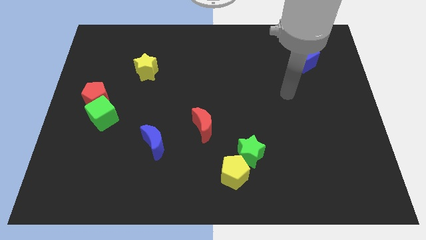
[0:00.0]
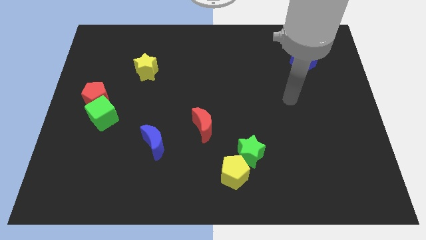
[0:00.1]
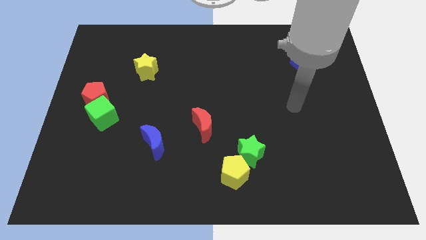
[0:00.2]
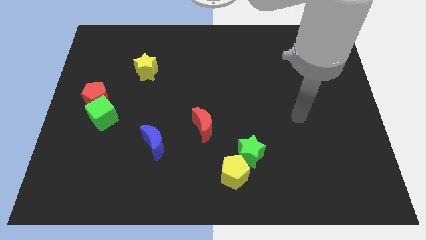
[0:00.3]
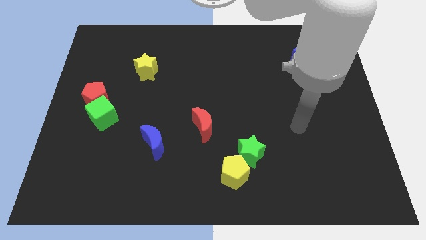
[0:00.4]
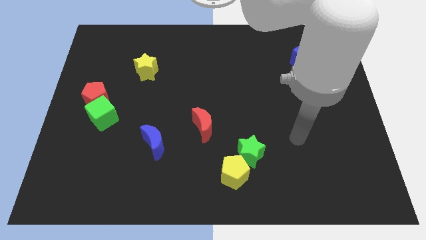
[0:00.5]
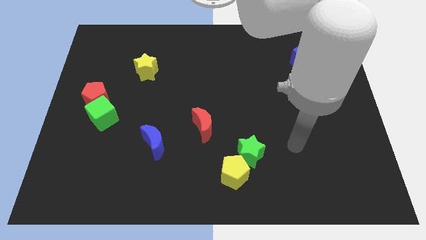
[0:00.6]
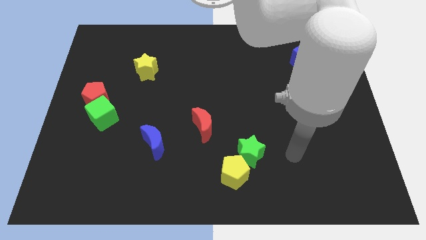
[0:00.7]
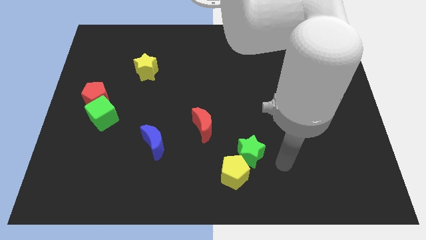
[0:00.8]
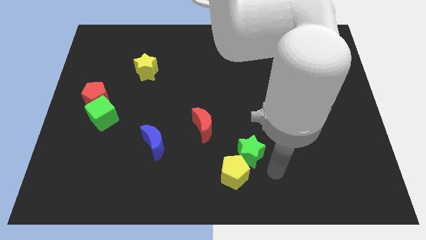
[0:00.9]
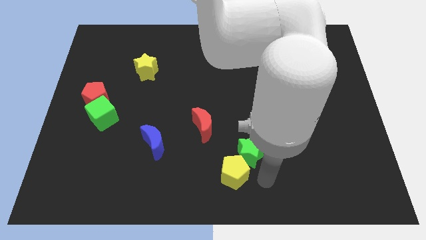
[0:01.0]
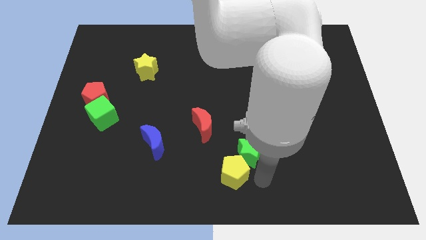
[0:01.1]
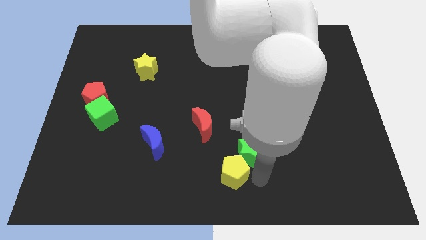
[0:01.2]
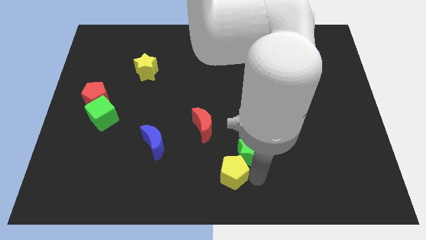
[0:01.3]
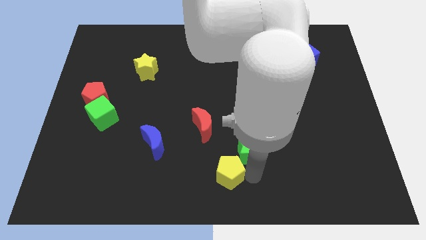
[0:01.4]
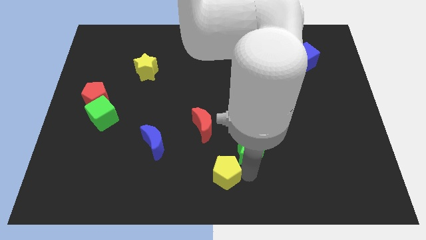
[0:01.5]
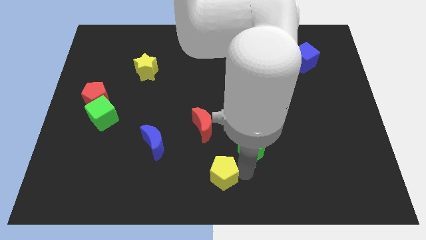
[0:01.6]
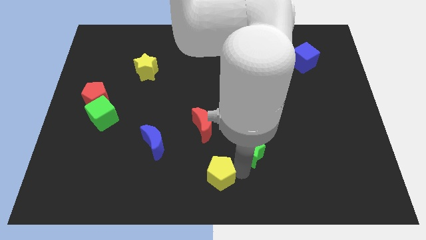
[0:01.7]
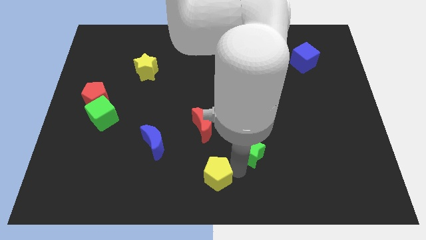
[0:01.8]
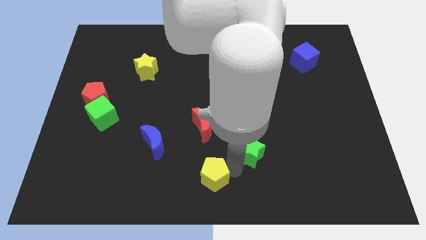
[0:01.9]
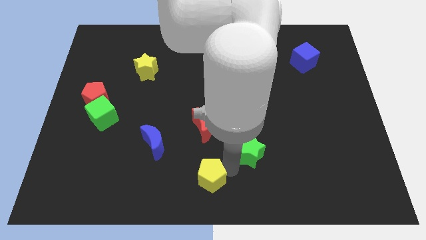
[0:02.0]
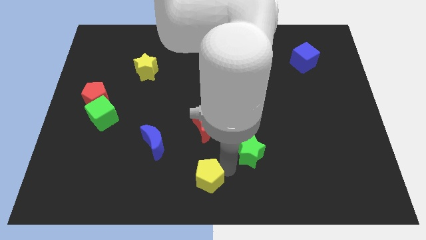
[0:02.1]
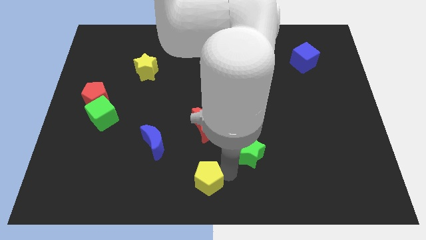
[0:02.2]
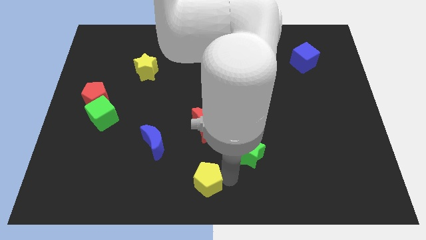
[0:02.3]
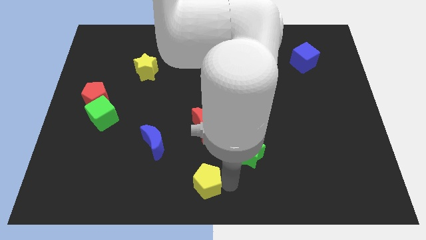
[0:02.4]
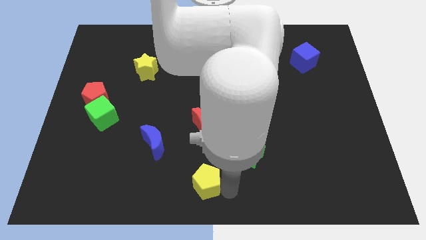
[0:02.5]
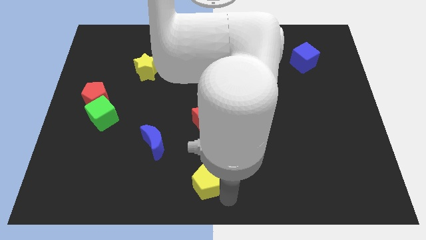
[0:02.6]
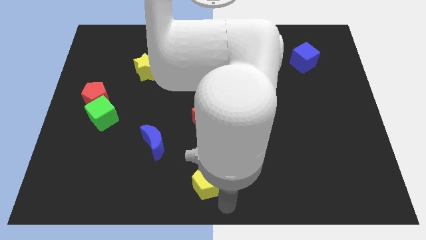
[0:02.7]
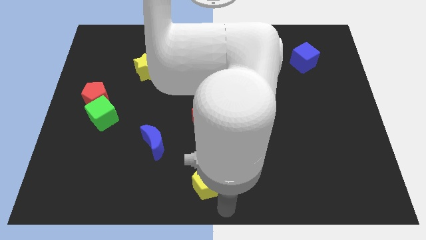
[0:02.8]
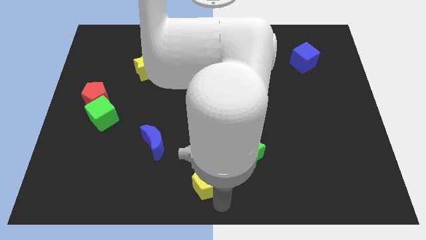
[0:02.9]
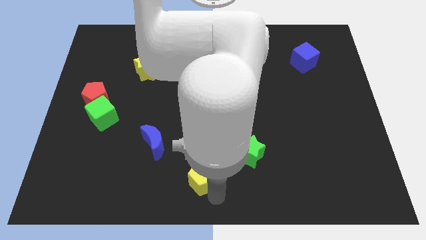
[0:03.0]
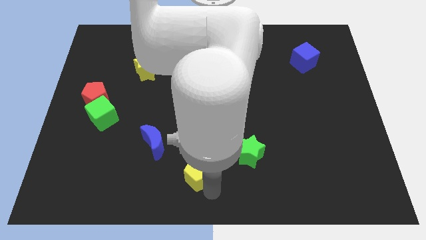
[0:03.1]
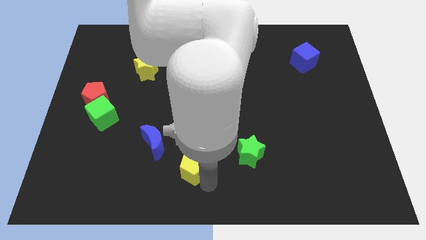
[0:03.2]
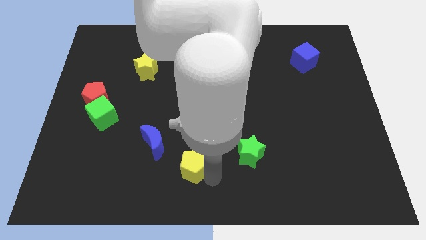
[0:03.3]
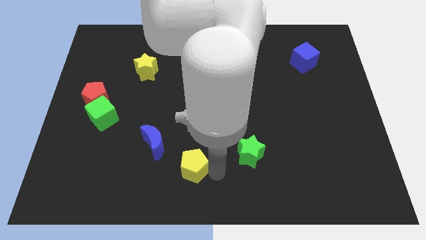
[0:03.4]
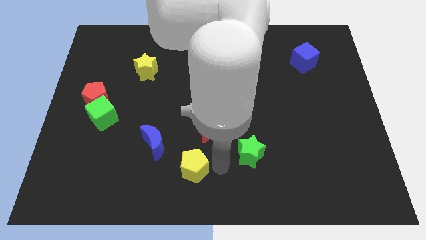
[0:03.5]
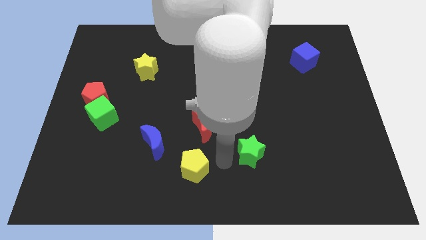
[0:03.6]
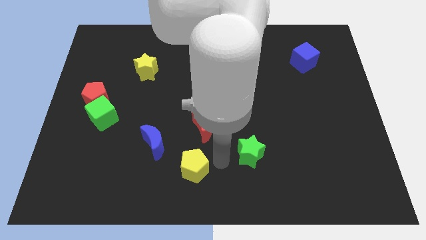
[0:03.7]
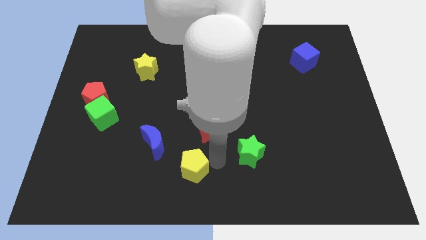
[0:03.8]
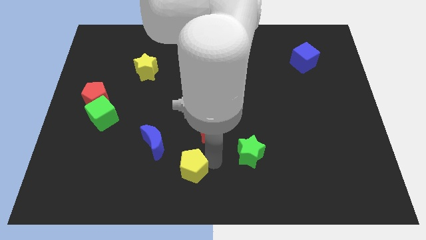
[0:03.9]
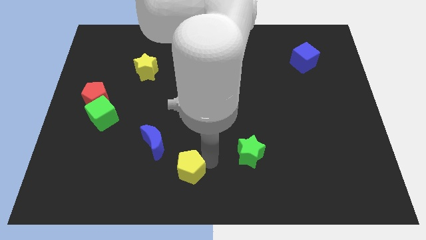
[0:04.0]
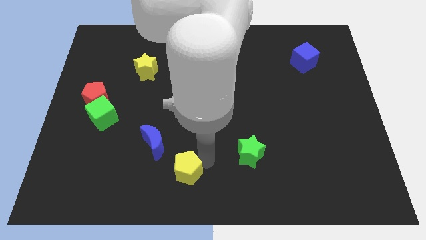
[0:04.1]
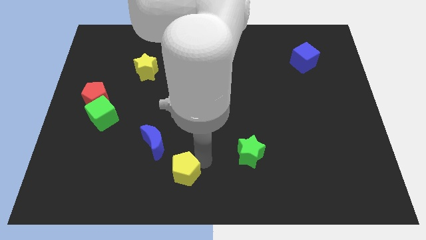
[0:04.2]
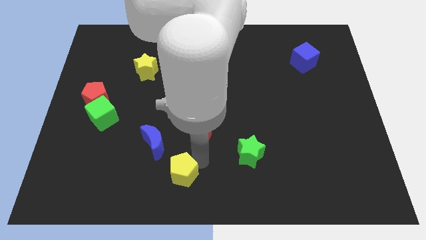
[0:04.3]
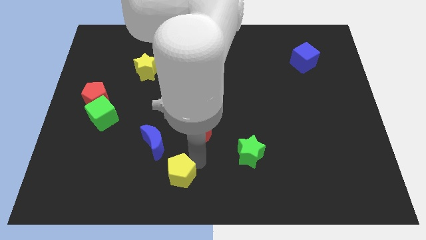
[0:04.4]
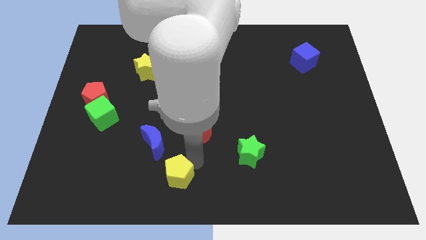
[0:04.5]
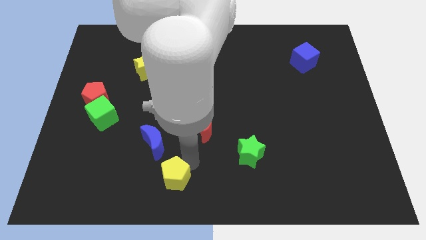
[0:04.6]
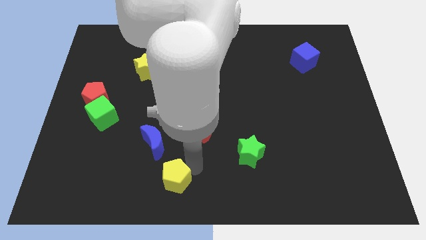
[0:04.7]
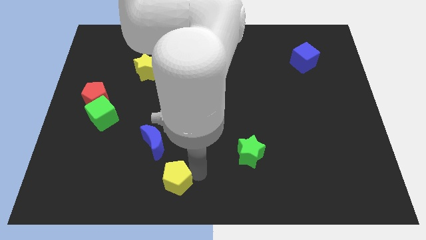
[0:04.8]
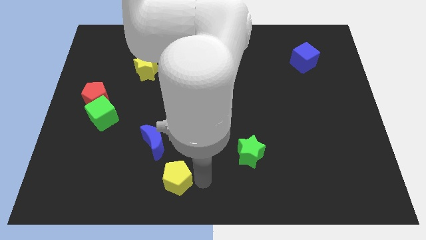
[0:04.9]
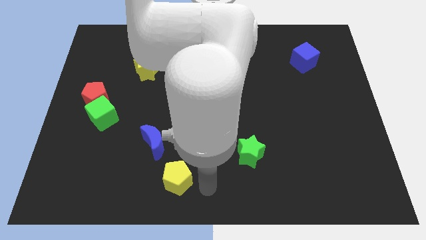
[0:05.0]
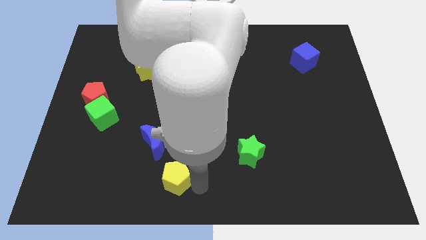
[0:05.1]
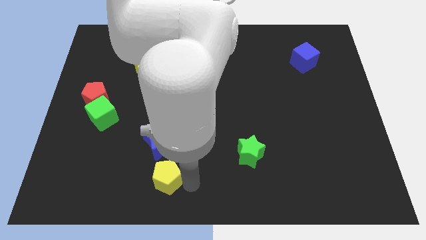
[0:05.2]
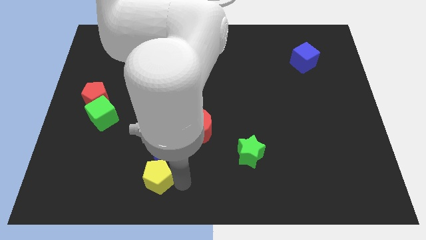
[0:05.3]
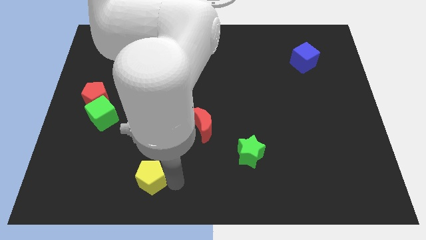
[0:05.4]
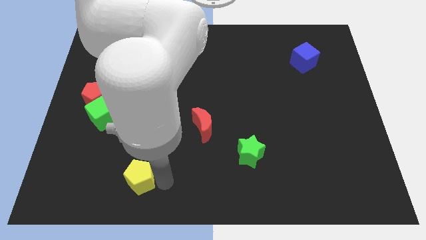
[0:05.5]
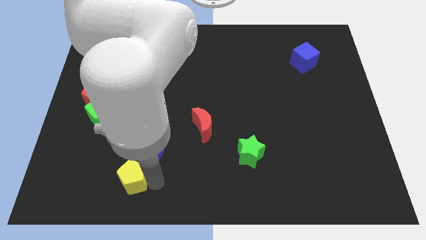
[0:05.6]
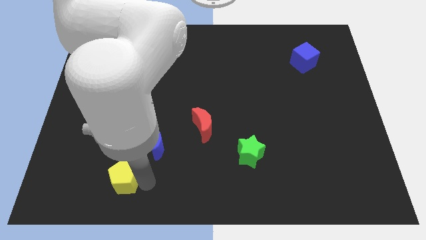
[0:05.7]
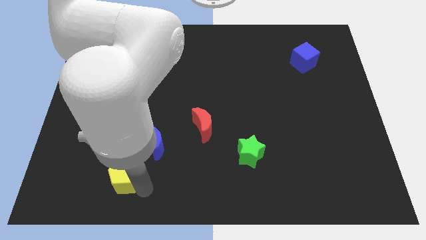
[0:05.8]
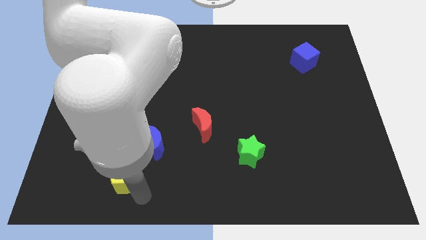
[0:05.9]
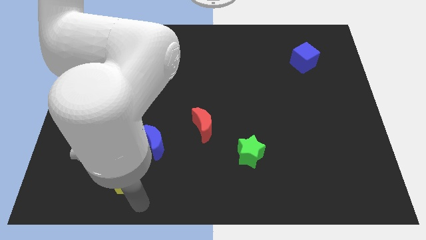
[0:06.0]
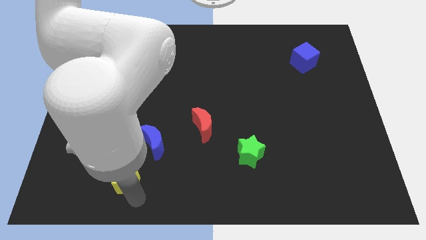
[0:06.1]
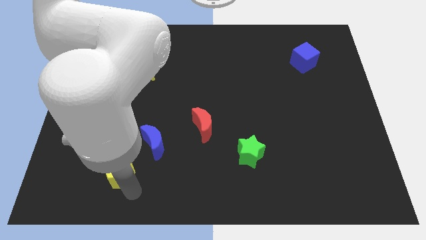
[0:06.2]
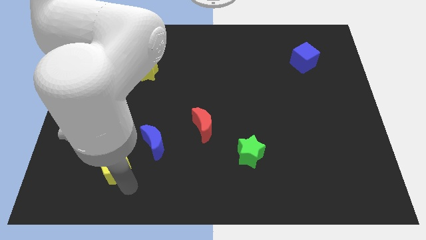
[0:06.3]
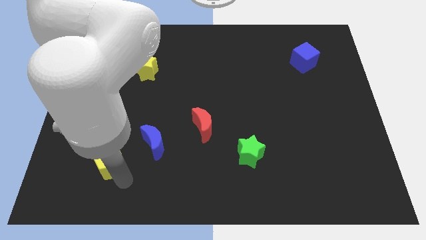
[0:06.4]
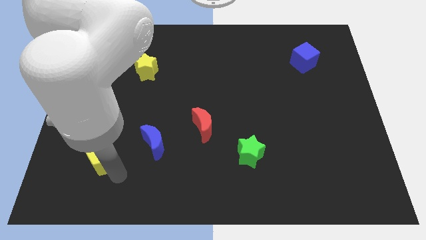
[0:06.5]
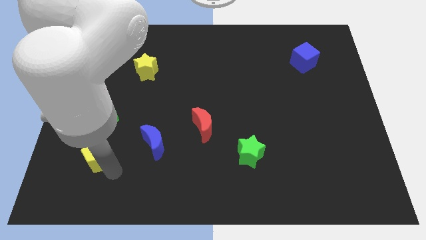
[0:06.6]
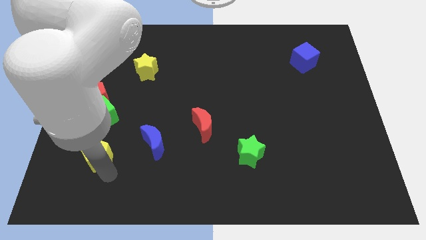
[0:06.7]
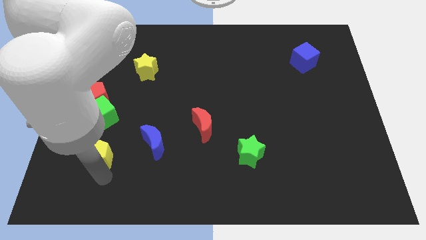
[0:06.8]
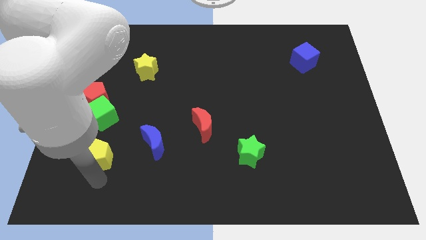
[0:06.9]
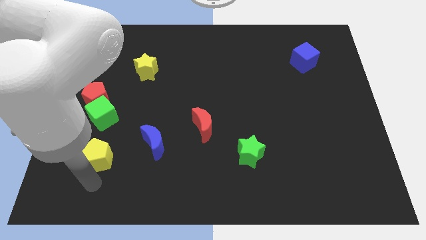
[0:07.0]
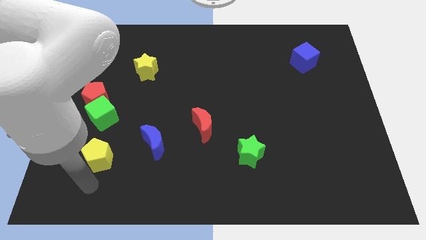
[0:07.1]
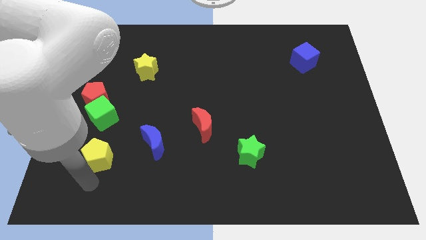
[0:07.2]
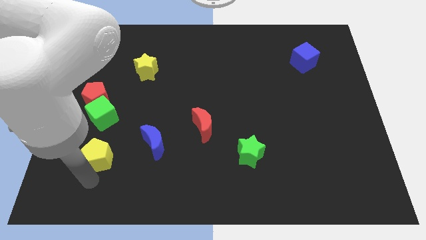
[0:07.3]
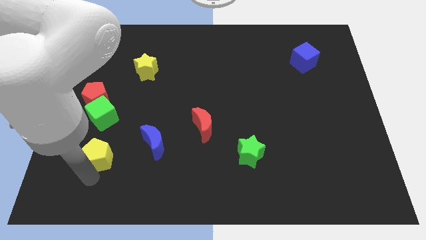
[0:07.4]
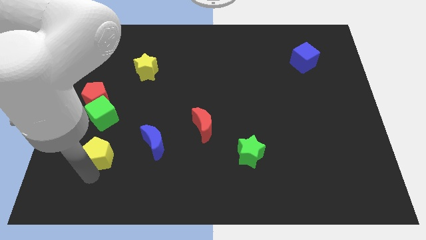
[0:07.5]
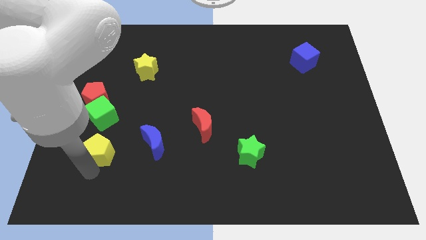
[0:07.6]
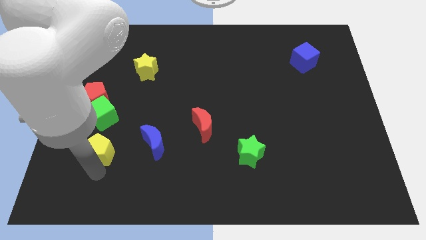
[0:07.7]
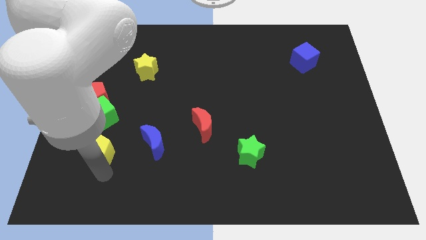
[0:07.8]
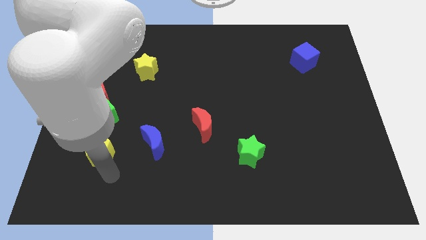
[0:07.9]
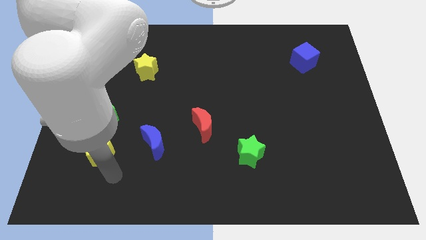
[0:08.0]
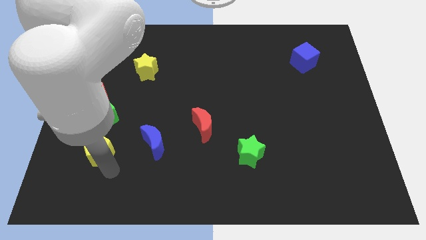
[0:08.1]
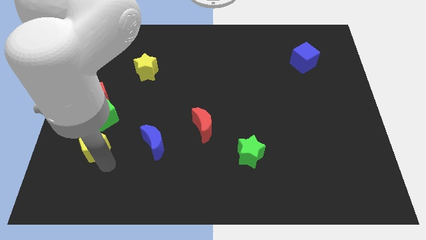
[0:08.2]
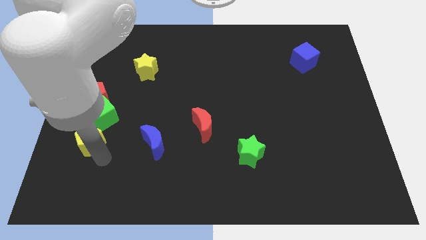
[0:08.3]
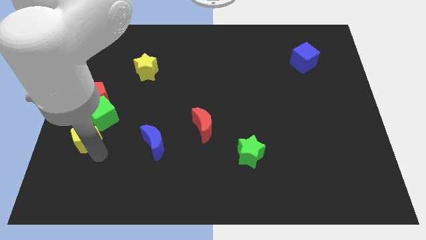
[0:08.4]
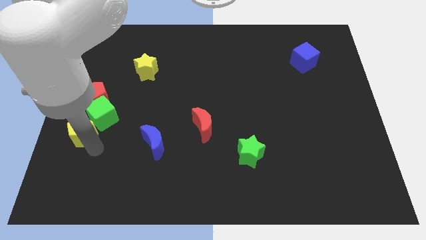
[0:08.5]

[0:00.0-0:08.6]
move the yellow pentagon to the left side of the board
